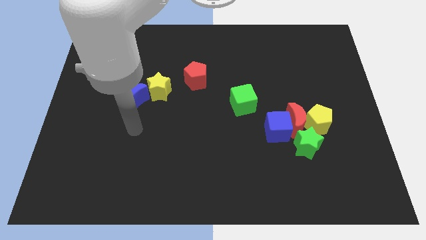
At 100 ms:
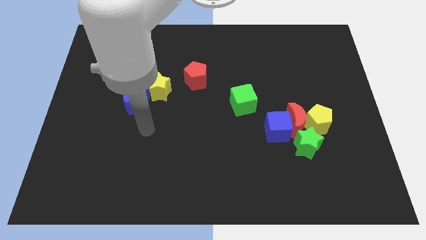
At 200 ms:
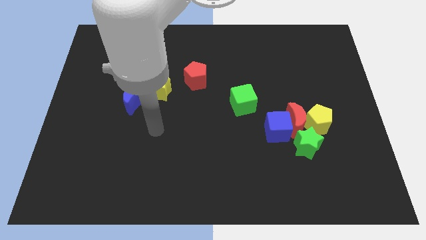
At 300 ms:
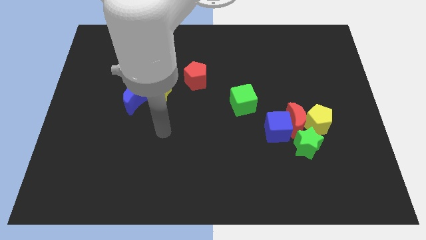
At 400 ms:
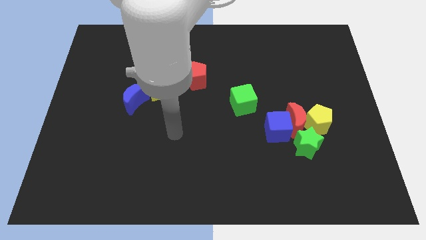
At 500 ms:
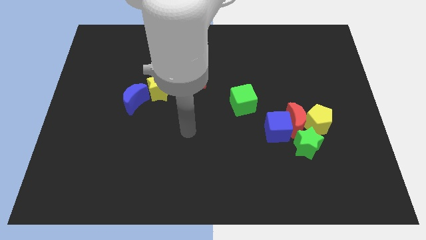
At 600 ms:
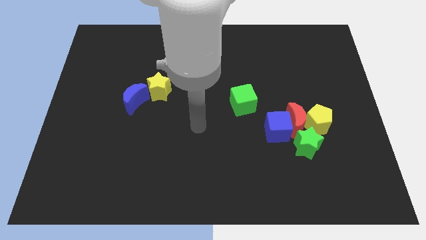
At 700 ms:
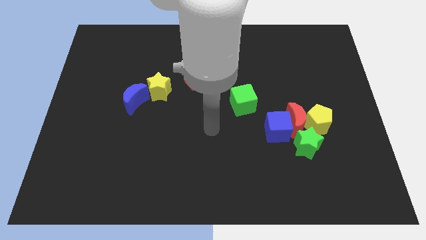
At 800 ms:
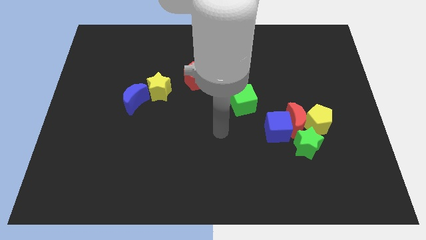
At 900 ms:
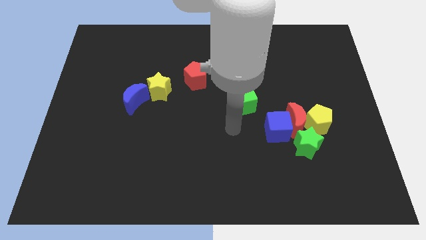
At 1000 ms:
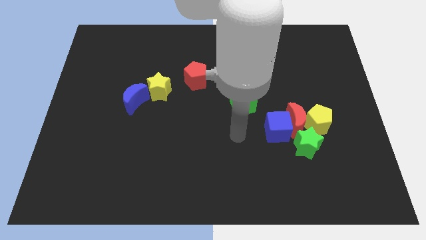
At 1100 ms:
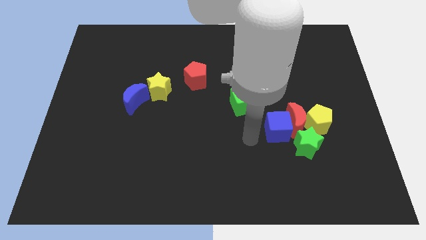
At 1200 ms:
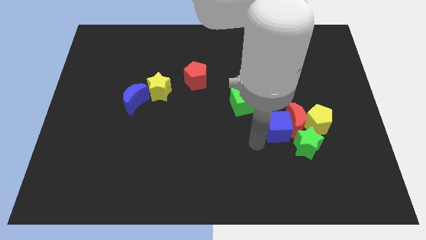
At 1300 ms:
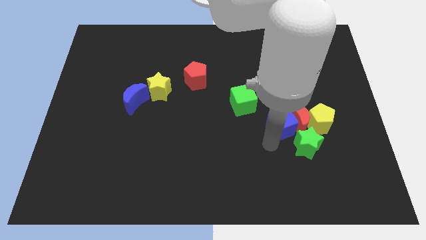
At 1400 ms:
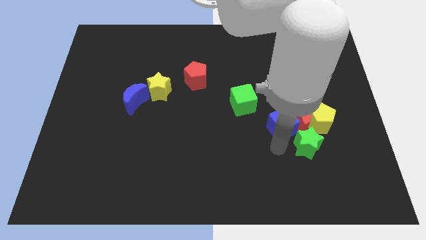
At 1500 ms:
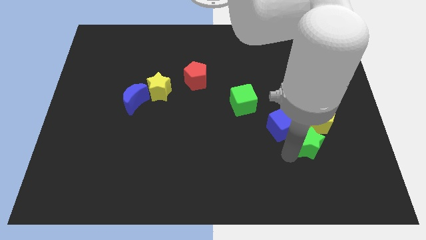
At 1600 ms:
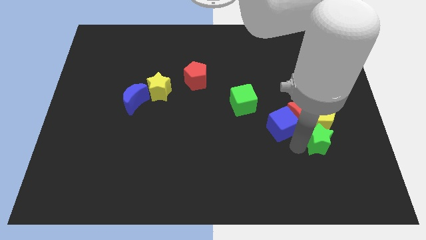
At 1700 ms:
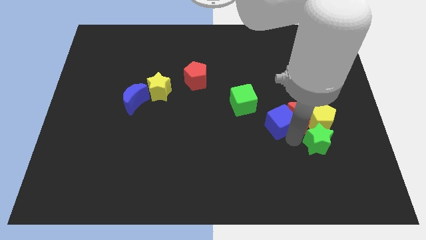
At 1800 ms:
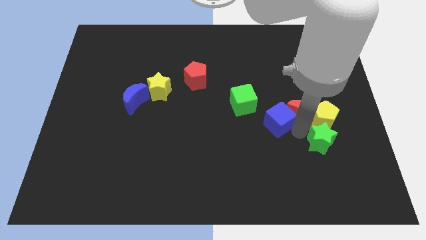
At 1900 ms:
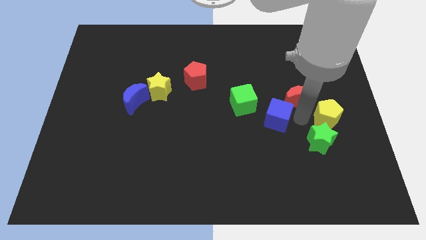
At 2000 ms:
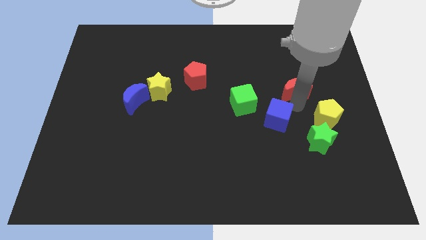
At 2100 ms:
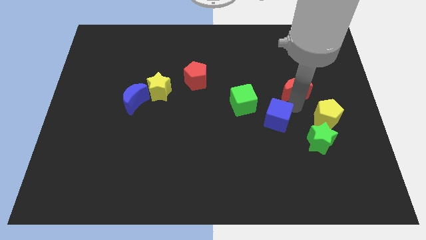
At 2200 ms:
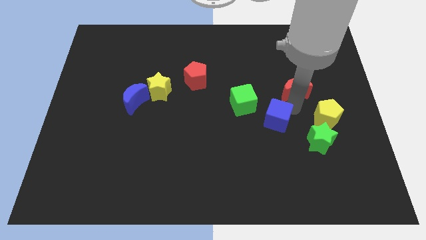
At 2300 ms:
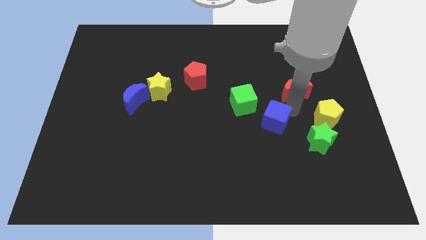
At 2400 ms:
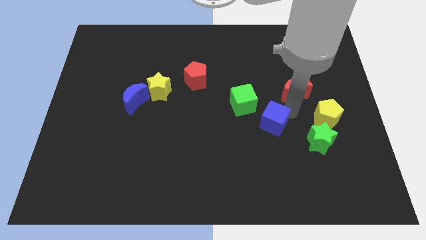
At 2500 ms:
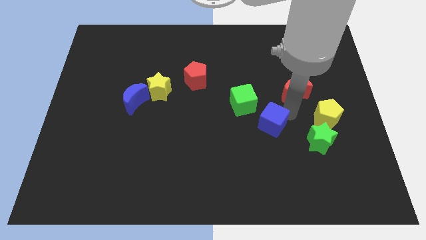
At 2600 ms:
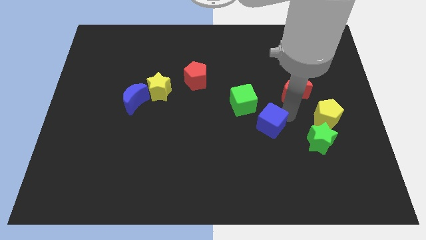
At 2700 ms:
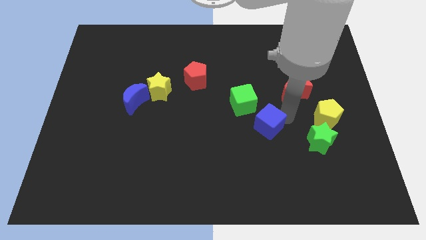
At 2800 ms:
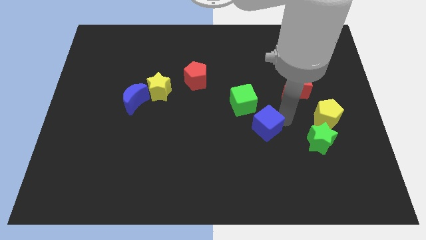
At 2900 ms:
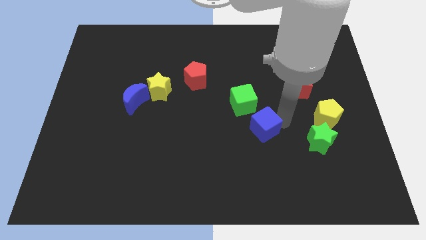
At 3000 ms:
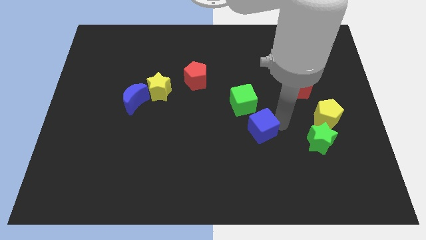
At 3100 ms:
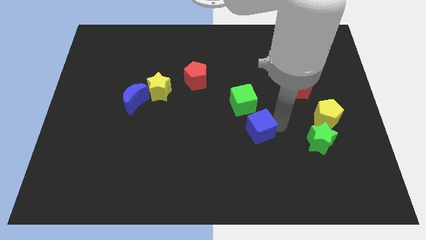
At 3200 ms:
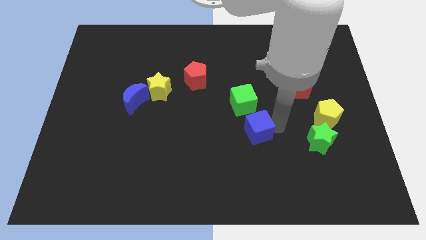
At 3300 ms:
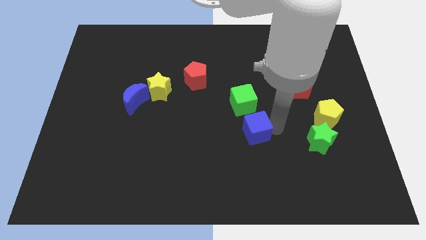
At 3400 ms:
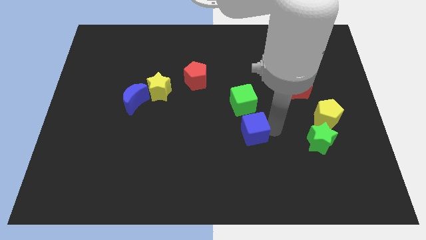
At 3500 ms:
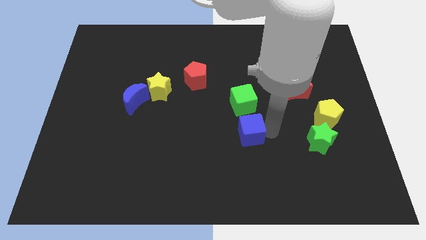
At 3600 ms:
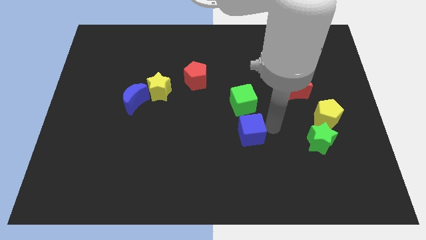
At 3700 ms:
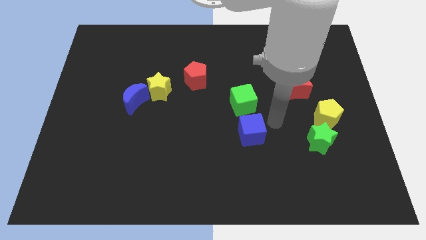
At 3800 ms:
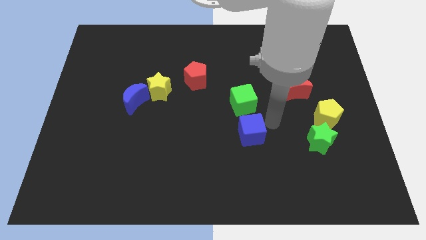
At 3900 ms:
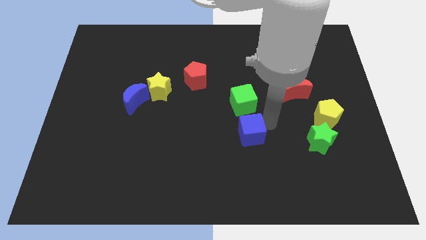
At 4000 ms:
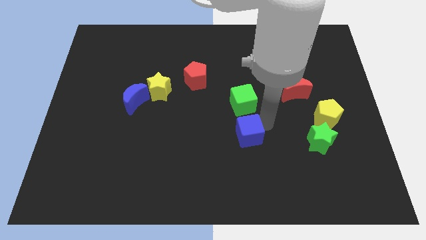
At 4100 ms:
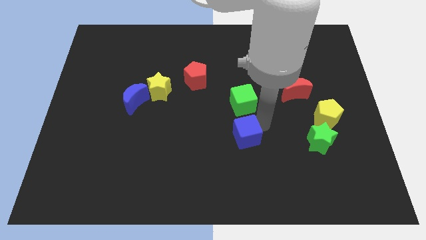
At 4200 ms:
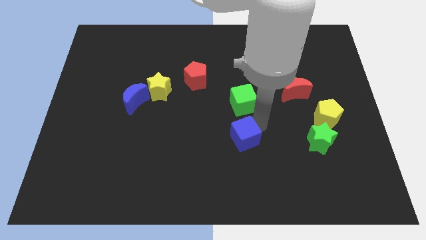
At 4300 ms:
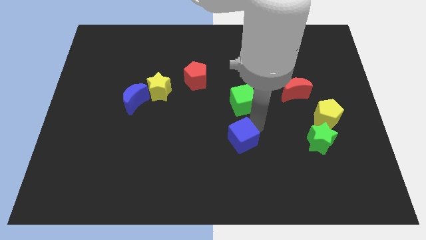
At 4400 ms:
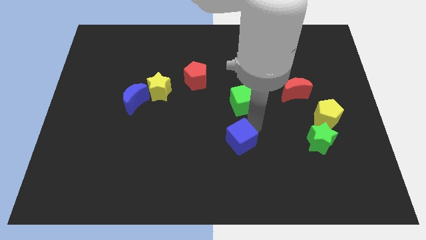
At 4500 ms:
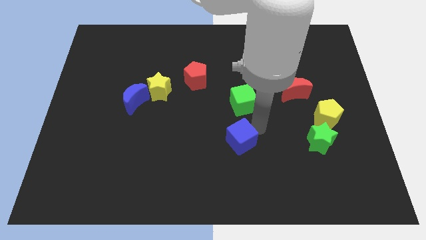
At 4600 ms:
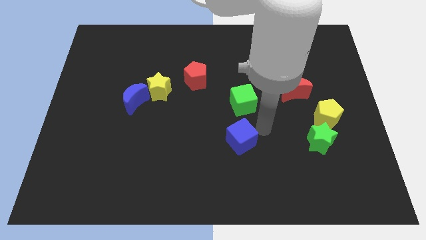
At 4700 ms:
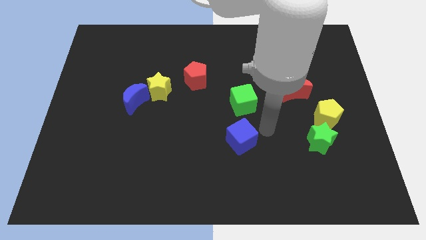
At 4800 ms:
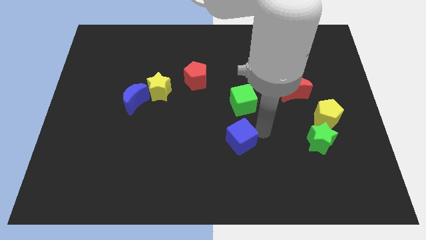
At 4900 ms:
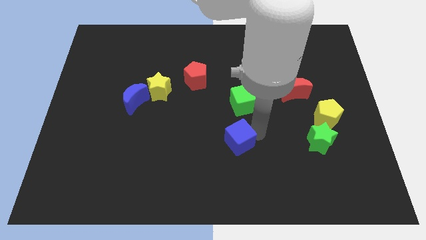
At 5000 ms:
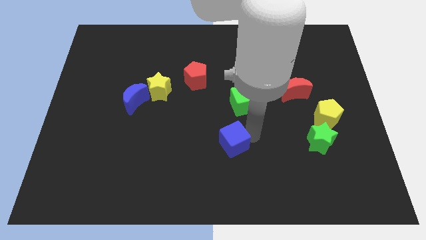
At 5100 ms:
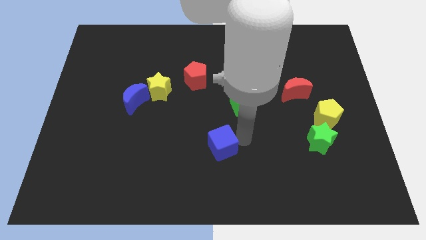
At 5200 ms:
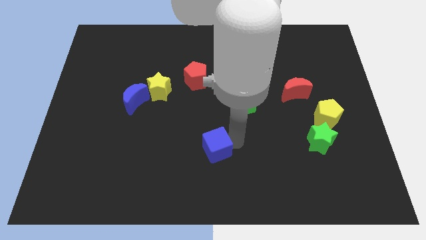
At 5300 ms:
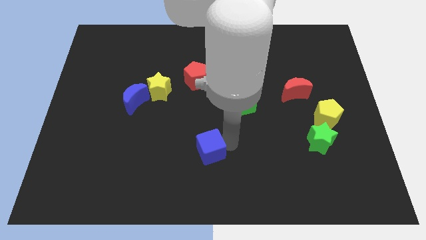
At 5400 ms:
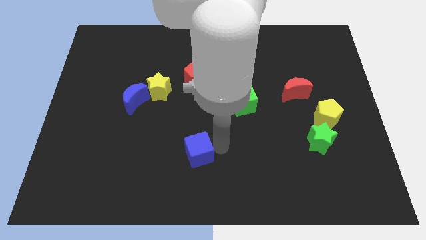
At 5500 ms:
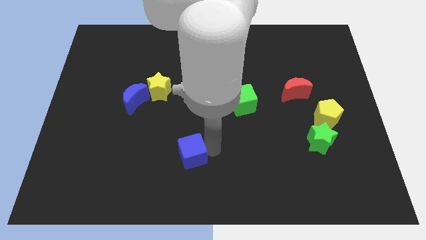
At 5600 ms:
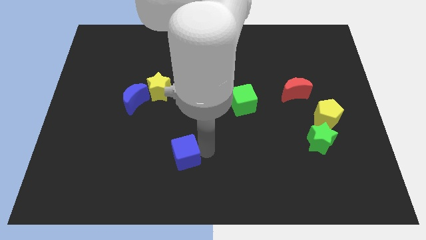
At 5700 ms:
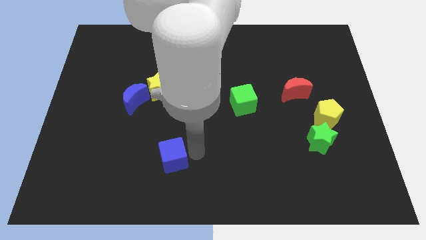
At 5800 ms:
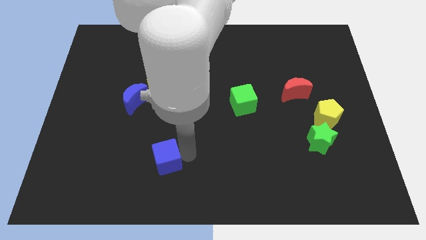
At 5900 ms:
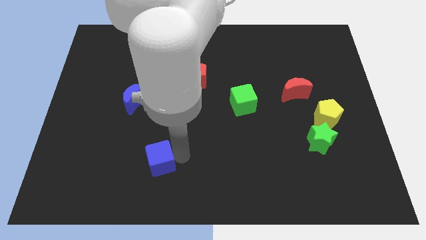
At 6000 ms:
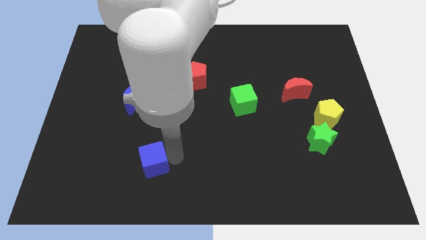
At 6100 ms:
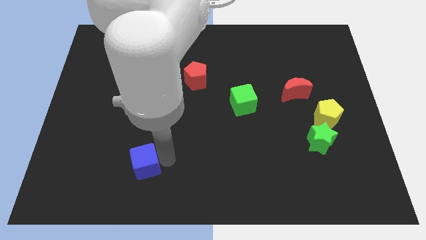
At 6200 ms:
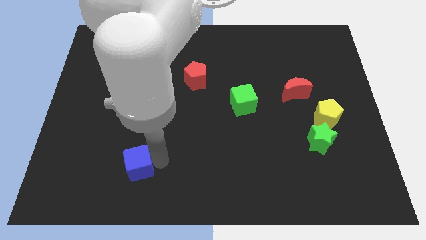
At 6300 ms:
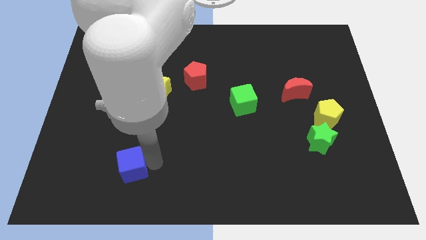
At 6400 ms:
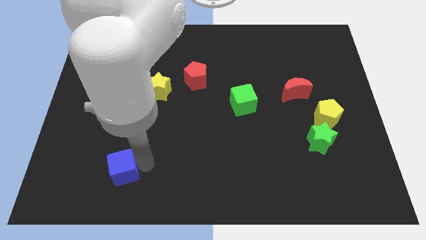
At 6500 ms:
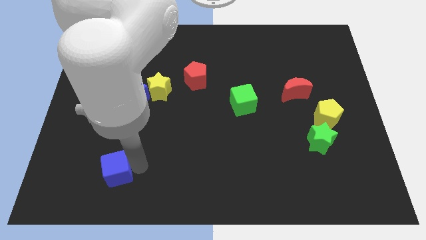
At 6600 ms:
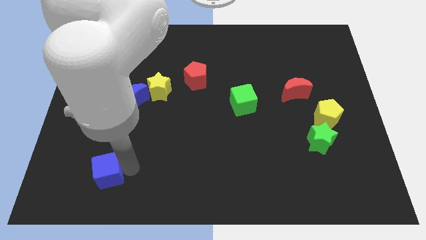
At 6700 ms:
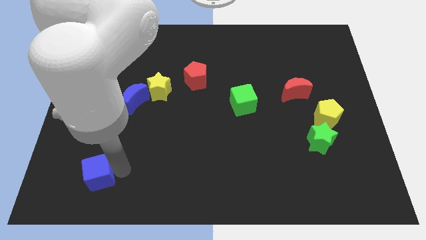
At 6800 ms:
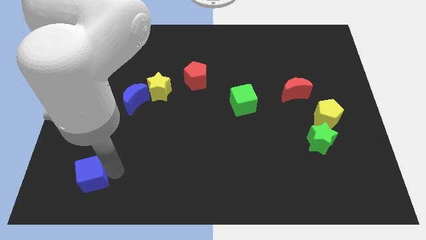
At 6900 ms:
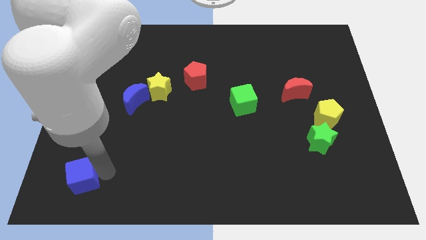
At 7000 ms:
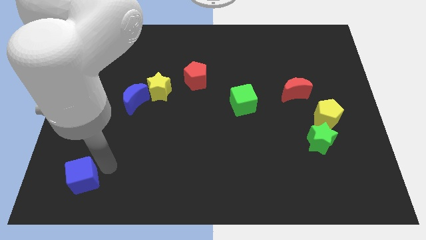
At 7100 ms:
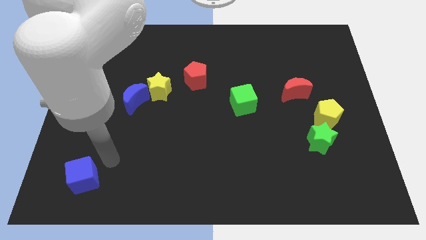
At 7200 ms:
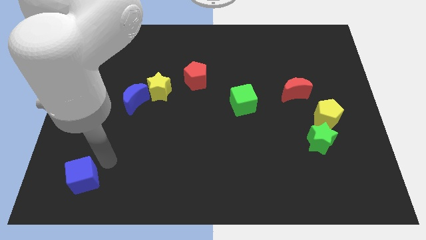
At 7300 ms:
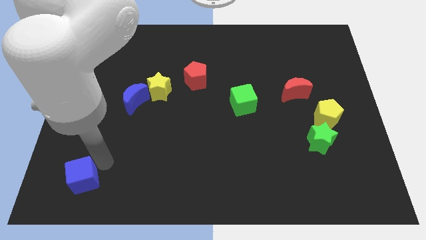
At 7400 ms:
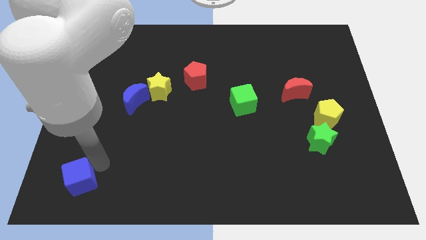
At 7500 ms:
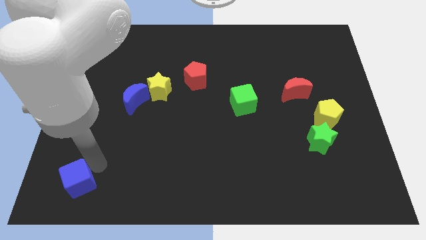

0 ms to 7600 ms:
push the blue cube to the bottom left of the board
